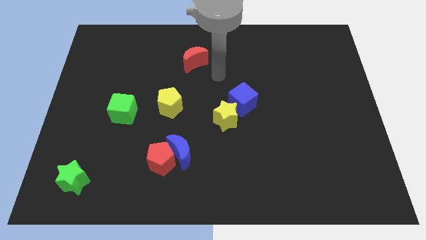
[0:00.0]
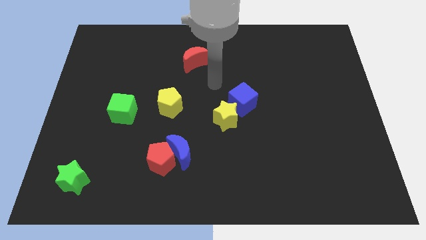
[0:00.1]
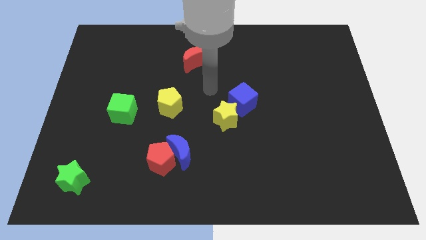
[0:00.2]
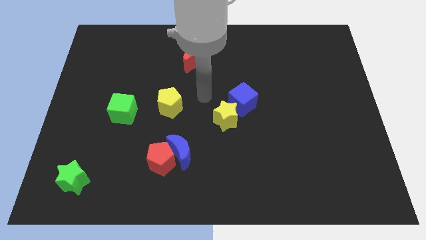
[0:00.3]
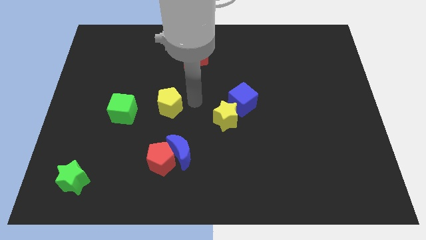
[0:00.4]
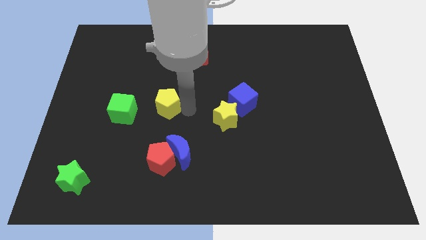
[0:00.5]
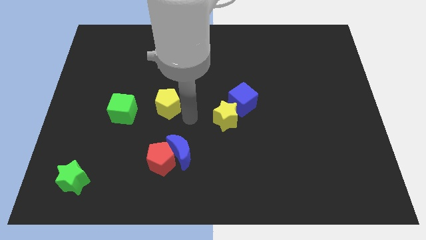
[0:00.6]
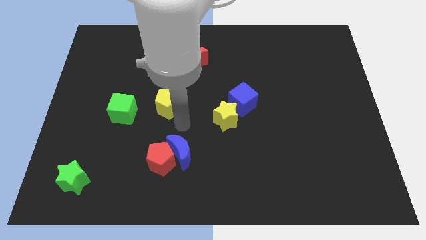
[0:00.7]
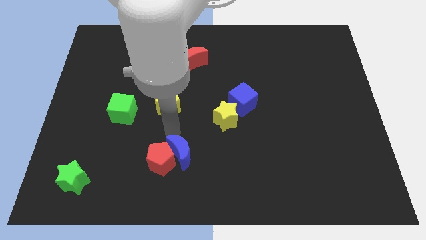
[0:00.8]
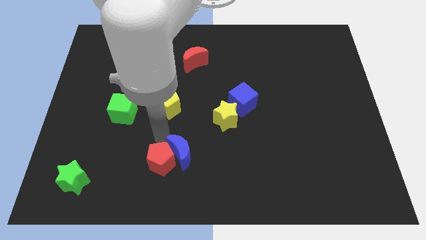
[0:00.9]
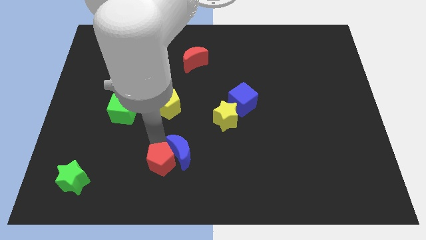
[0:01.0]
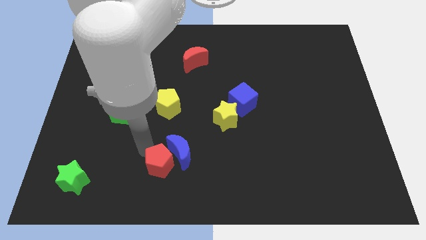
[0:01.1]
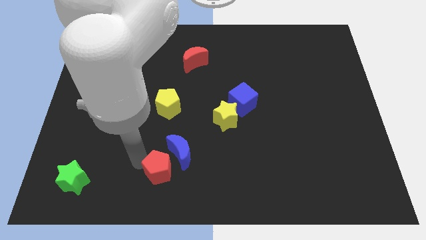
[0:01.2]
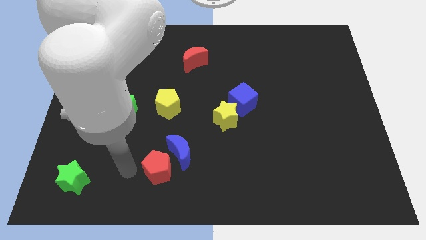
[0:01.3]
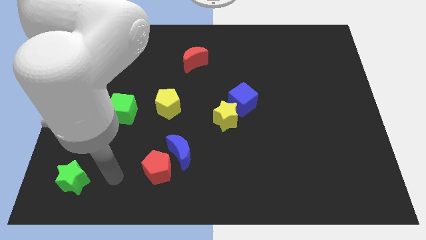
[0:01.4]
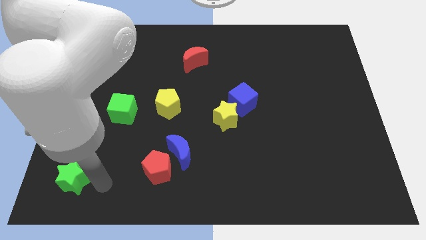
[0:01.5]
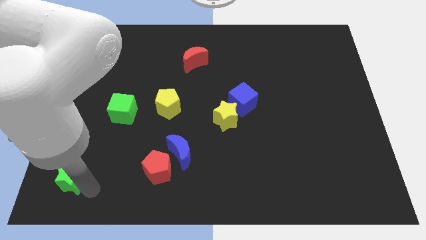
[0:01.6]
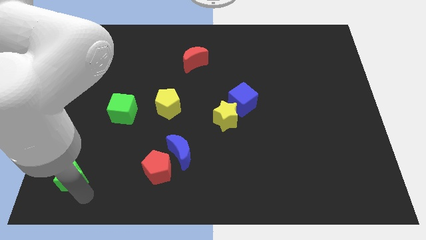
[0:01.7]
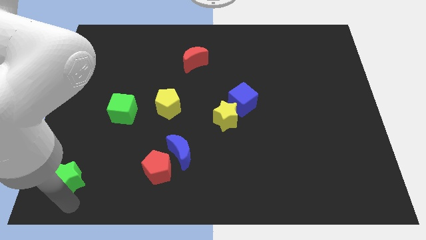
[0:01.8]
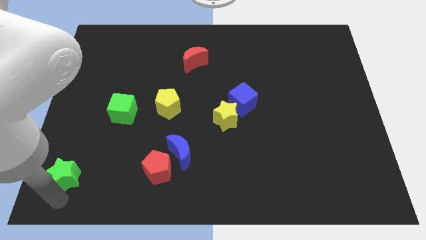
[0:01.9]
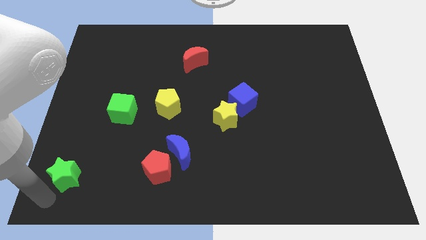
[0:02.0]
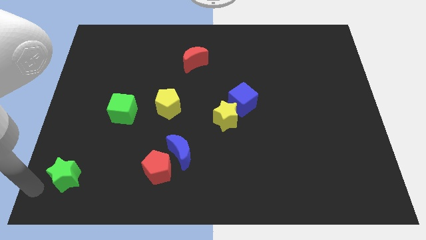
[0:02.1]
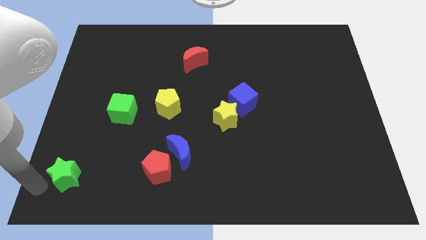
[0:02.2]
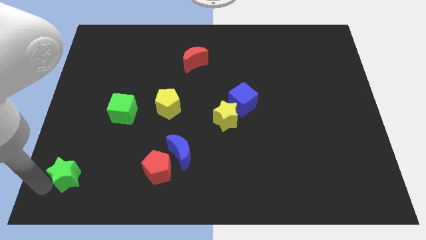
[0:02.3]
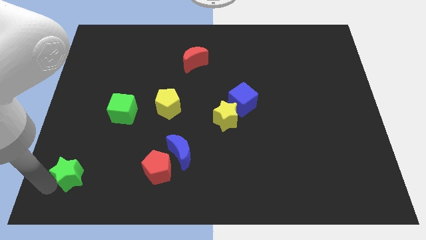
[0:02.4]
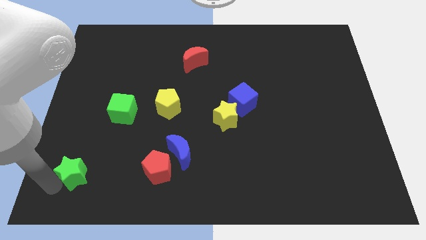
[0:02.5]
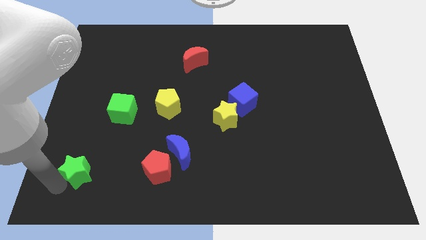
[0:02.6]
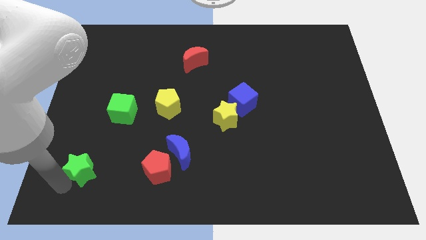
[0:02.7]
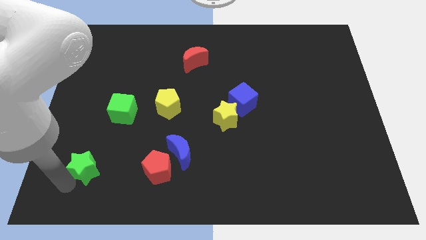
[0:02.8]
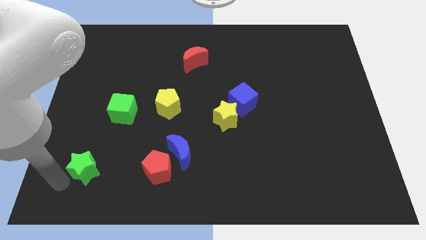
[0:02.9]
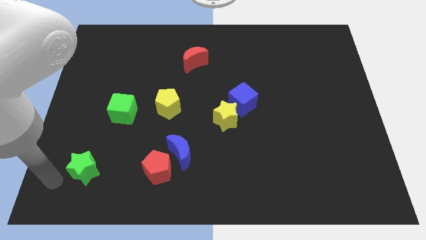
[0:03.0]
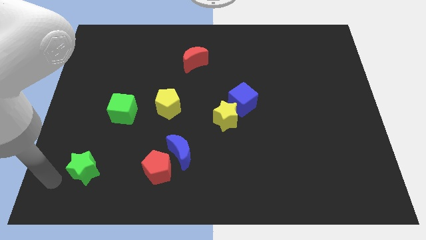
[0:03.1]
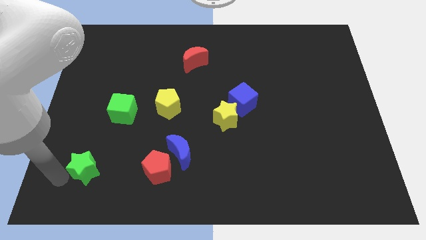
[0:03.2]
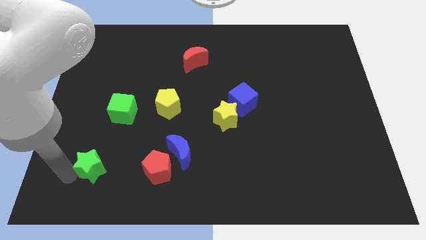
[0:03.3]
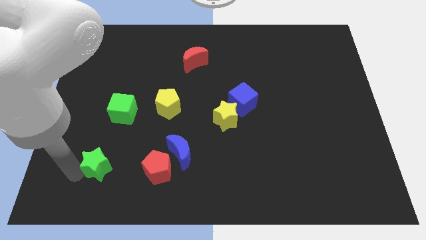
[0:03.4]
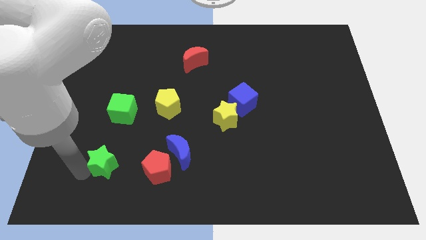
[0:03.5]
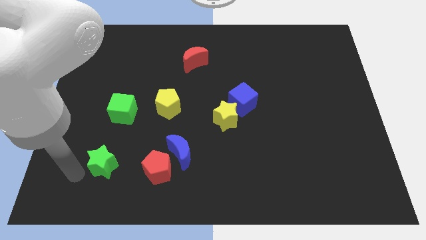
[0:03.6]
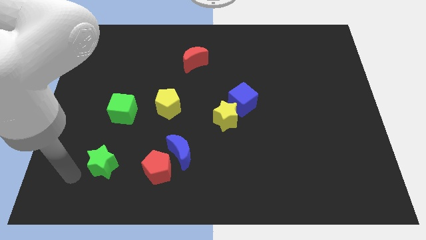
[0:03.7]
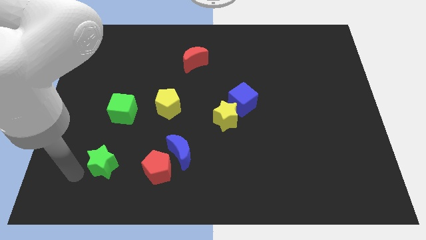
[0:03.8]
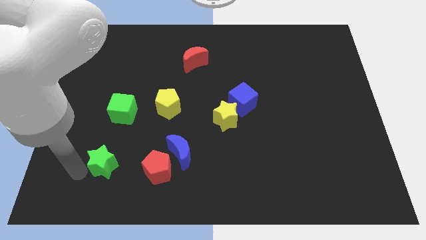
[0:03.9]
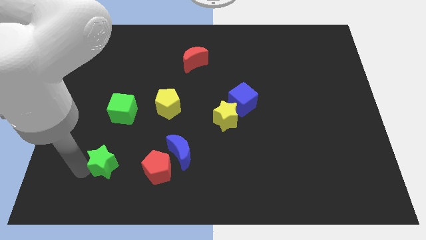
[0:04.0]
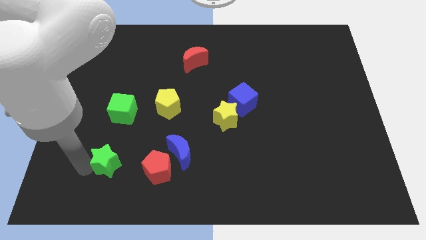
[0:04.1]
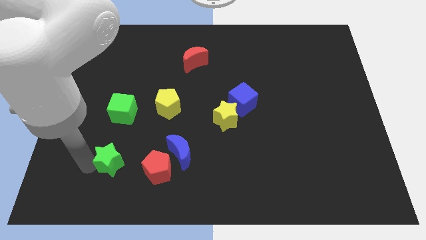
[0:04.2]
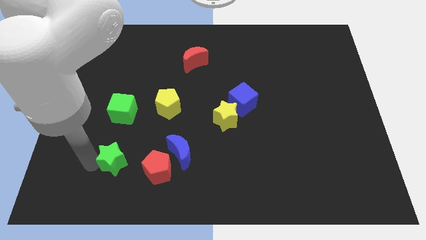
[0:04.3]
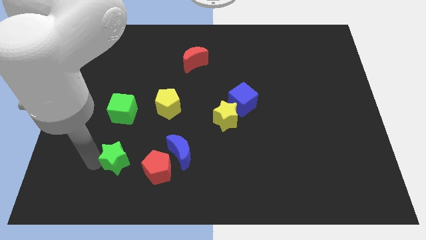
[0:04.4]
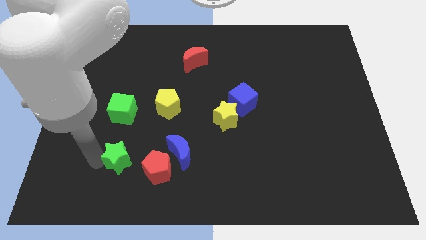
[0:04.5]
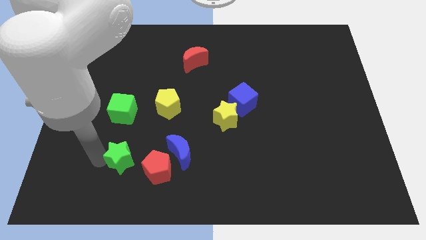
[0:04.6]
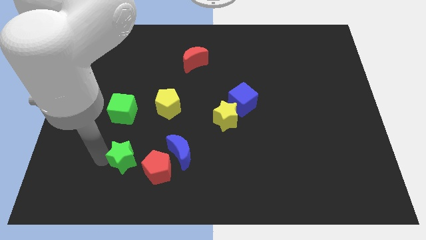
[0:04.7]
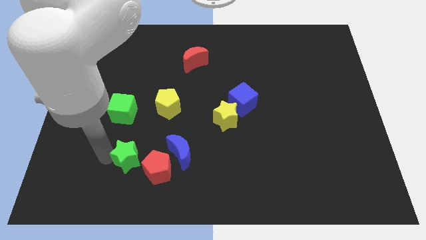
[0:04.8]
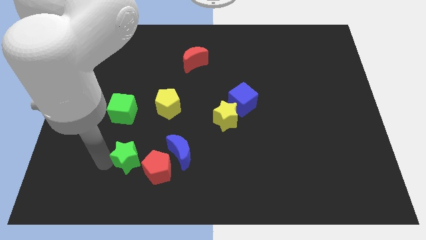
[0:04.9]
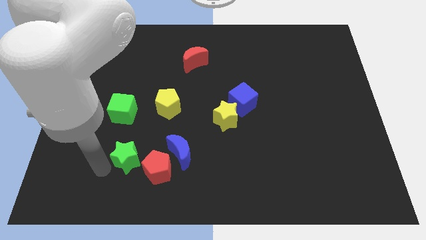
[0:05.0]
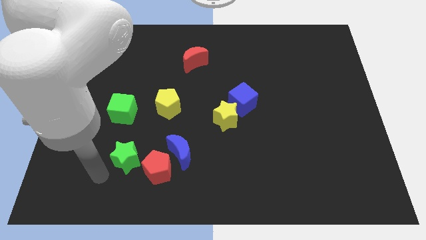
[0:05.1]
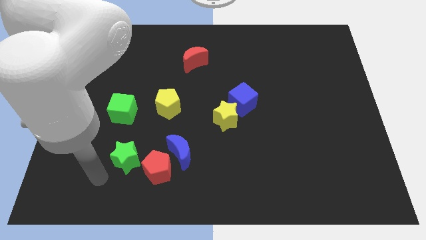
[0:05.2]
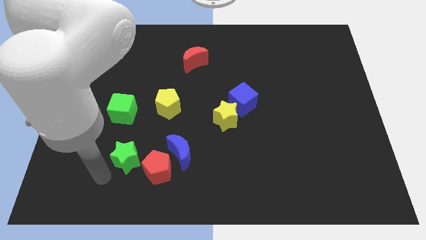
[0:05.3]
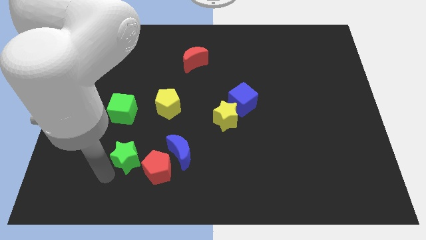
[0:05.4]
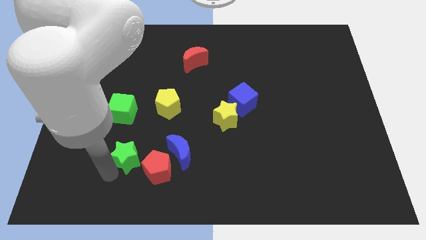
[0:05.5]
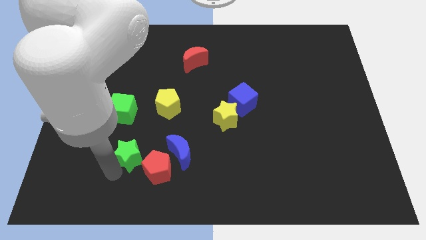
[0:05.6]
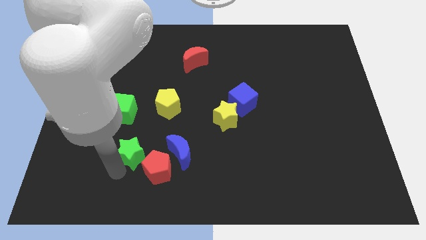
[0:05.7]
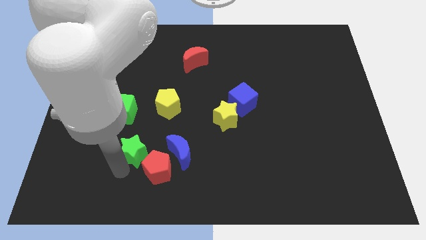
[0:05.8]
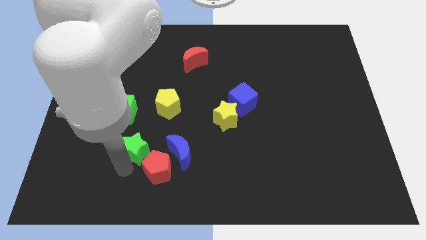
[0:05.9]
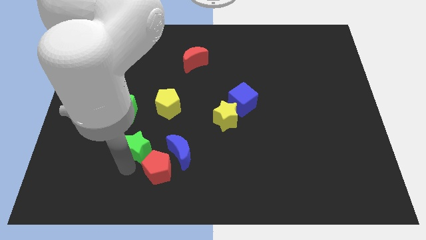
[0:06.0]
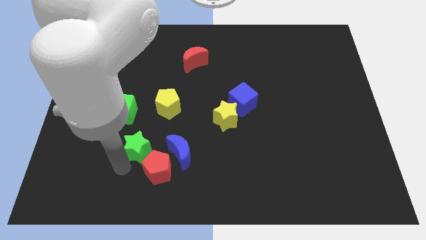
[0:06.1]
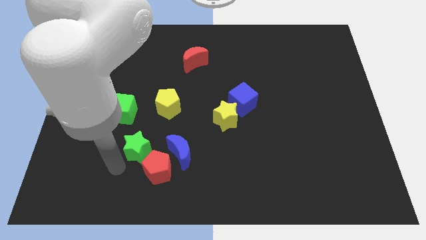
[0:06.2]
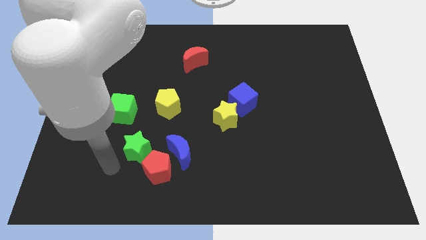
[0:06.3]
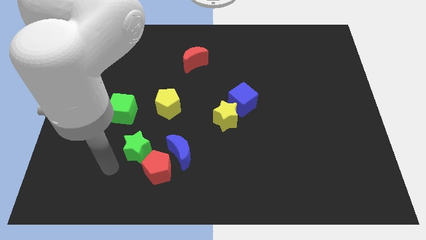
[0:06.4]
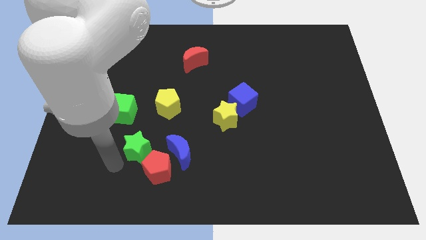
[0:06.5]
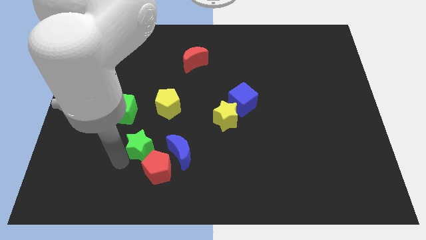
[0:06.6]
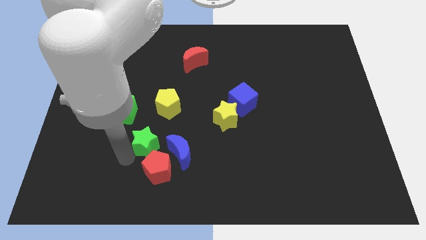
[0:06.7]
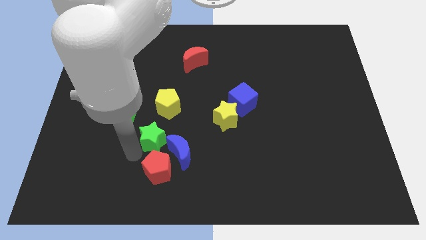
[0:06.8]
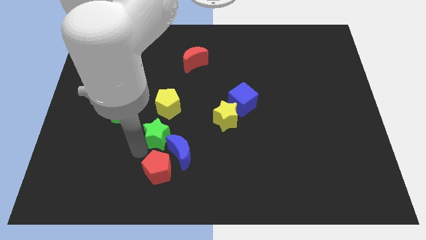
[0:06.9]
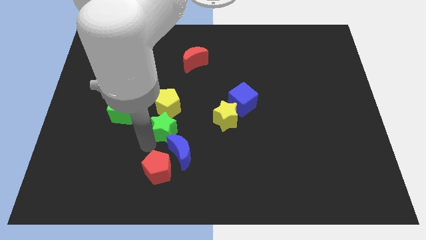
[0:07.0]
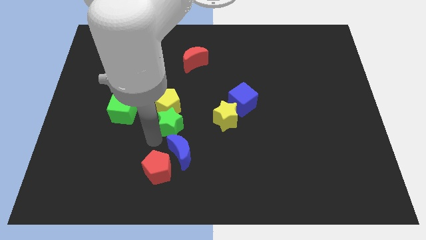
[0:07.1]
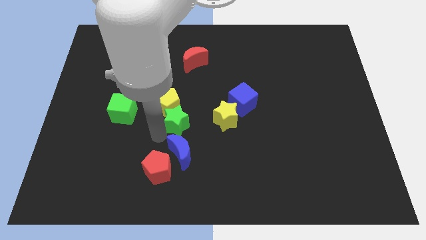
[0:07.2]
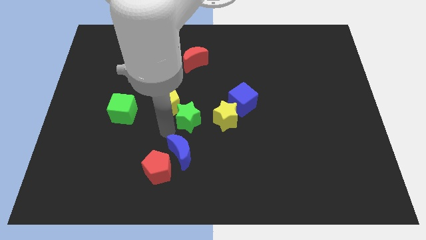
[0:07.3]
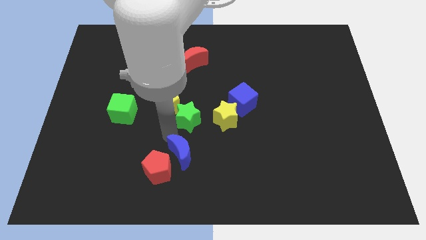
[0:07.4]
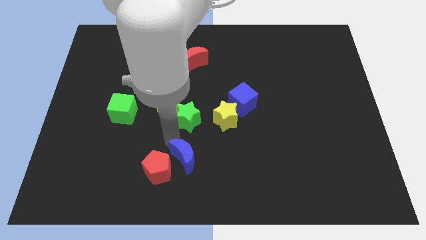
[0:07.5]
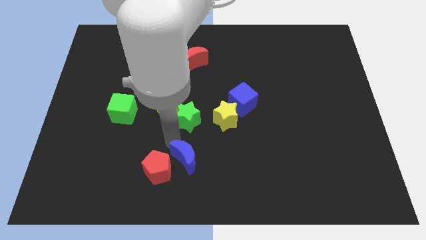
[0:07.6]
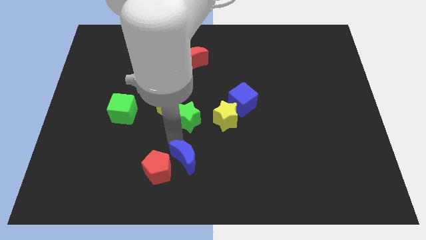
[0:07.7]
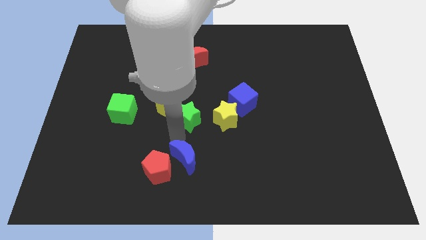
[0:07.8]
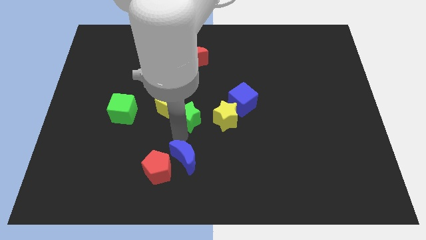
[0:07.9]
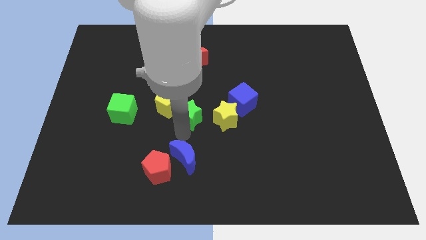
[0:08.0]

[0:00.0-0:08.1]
push the green star left of the blue cube
